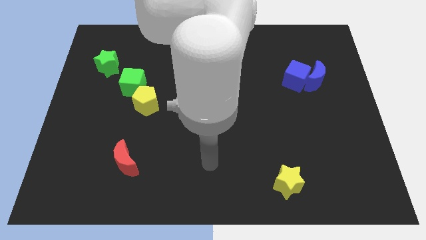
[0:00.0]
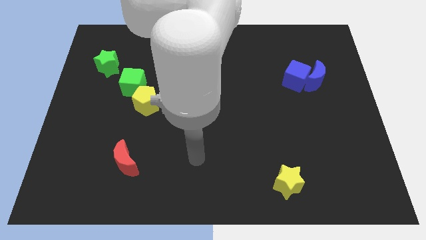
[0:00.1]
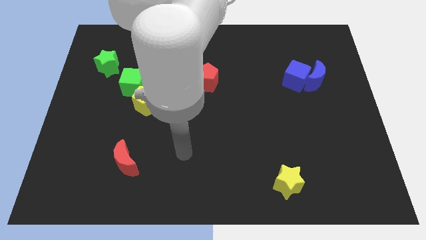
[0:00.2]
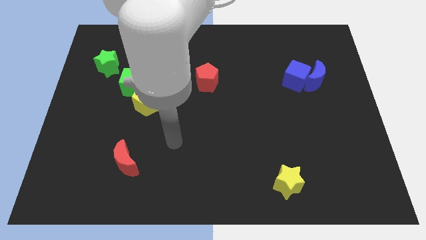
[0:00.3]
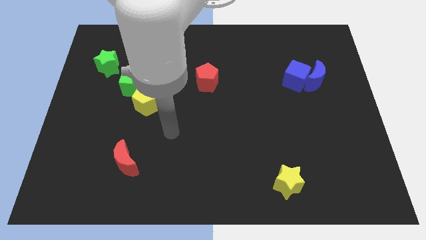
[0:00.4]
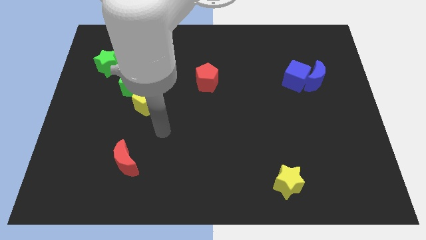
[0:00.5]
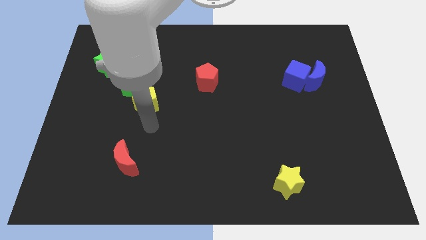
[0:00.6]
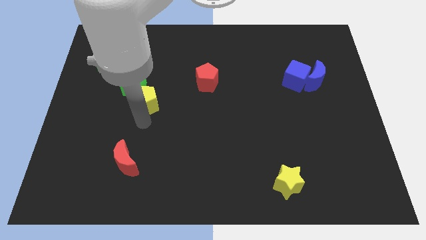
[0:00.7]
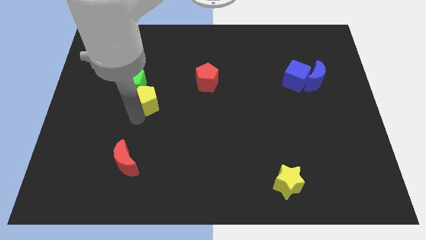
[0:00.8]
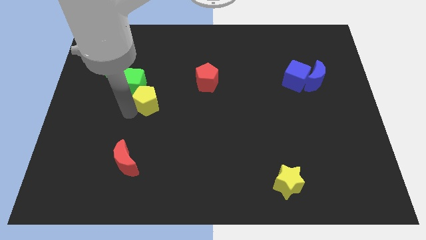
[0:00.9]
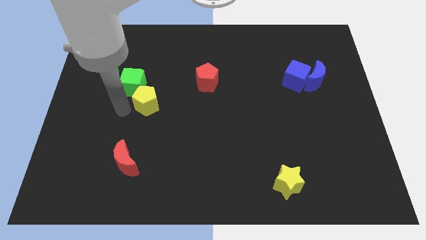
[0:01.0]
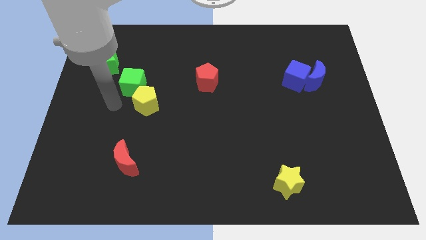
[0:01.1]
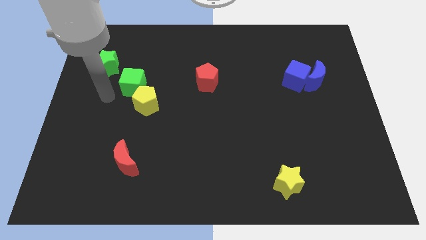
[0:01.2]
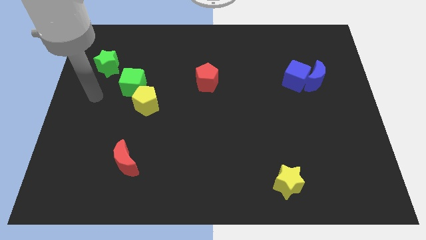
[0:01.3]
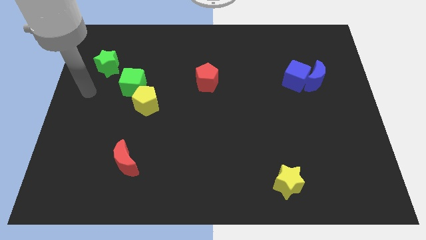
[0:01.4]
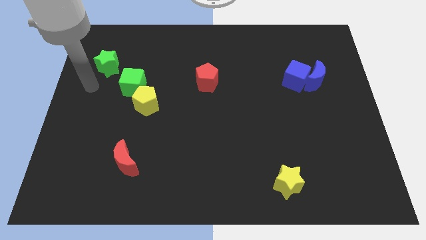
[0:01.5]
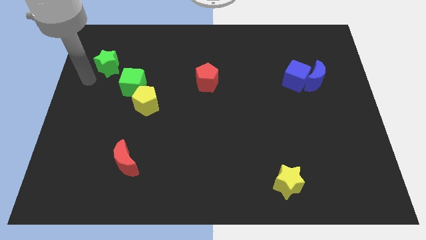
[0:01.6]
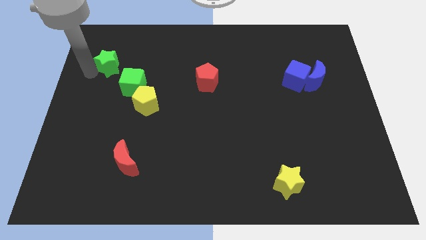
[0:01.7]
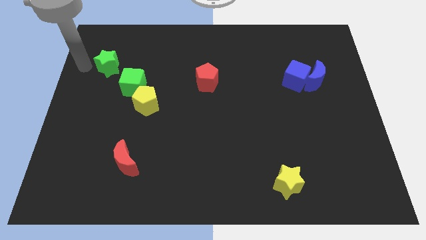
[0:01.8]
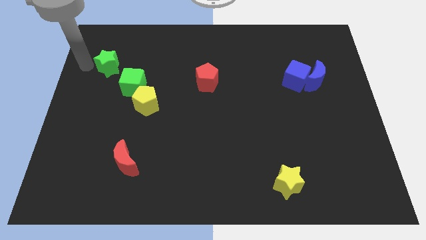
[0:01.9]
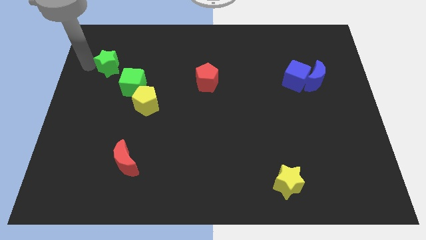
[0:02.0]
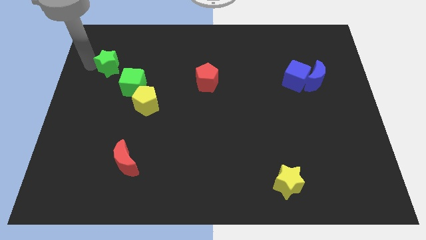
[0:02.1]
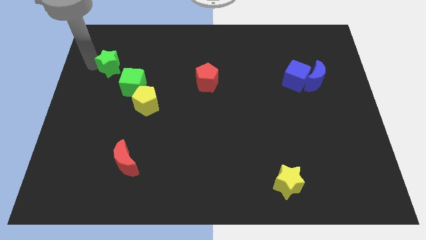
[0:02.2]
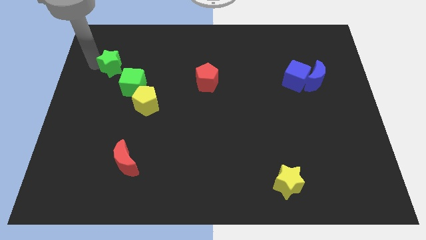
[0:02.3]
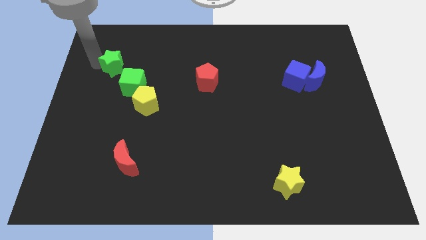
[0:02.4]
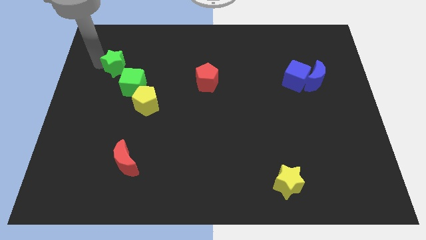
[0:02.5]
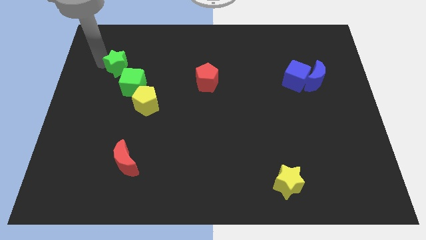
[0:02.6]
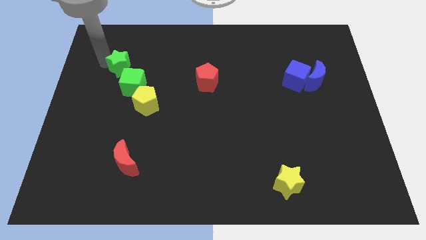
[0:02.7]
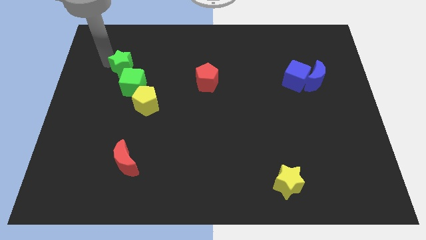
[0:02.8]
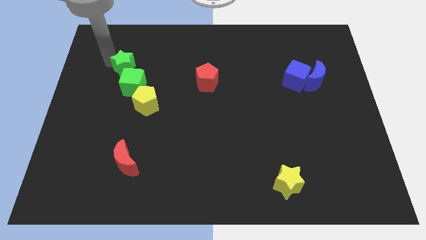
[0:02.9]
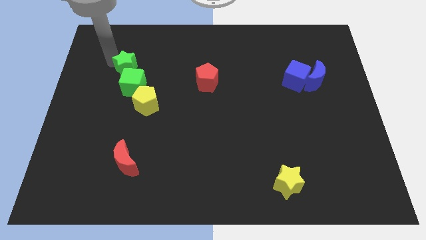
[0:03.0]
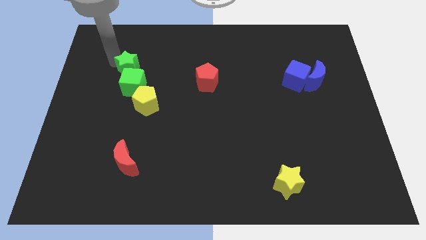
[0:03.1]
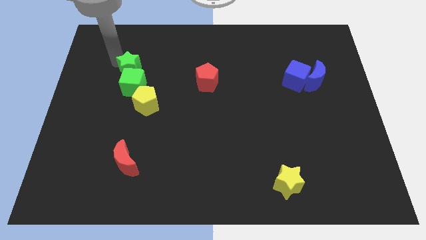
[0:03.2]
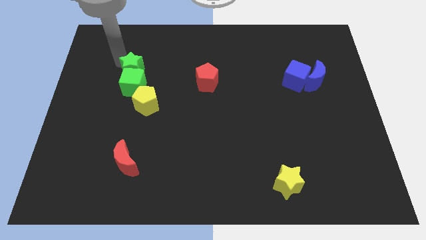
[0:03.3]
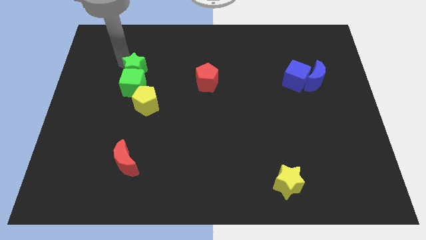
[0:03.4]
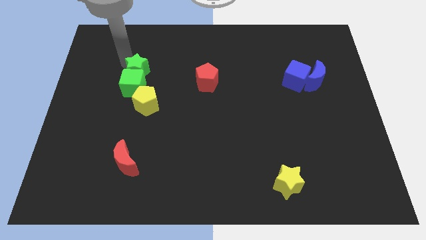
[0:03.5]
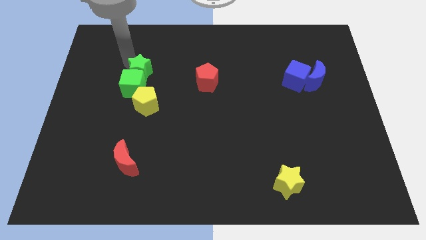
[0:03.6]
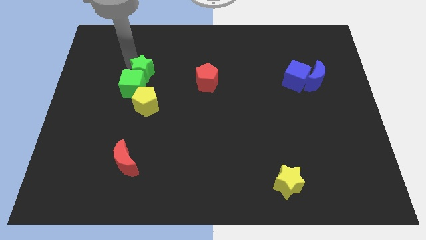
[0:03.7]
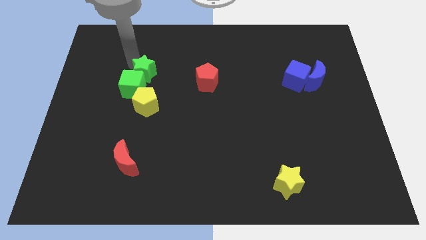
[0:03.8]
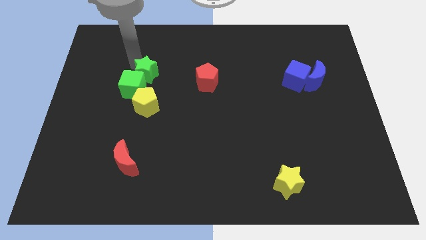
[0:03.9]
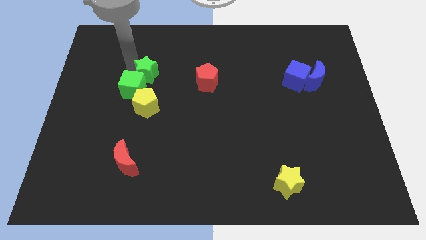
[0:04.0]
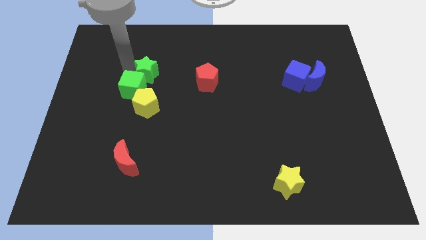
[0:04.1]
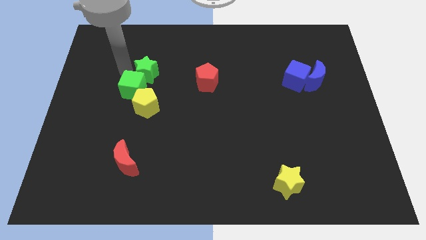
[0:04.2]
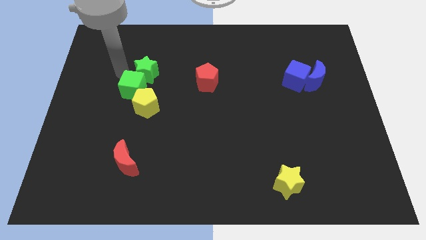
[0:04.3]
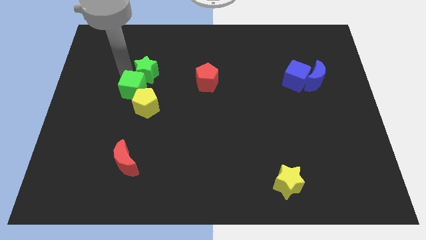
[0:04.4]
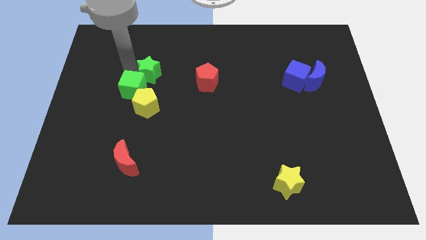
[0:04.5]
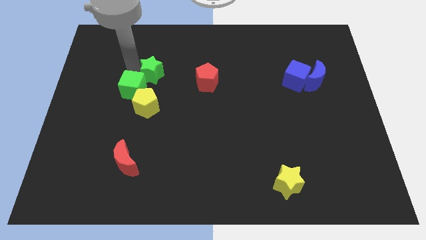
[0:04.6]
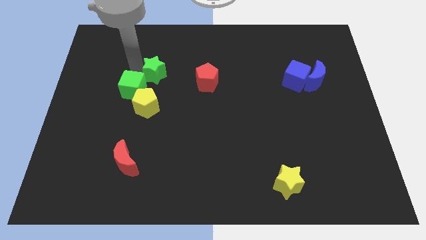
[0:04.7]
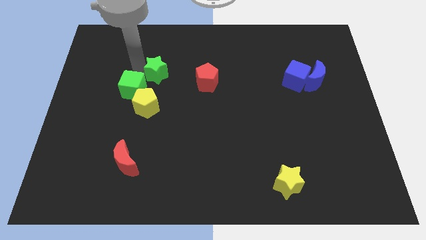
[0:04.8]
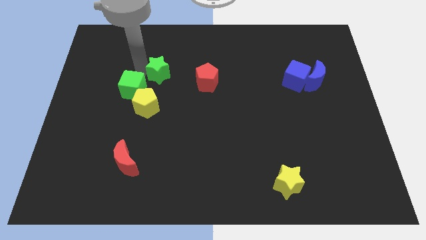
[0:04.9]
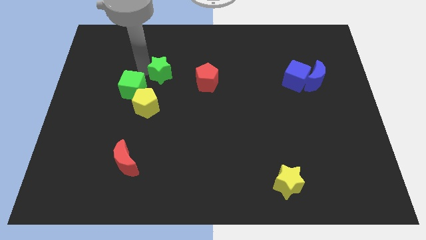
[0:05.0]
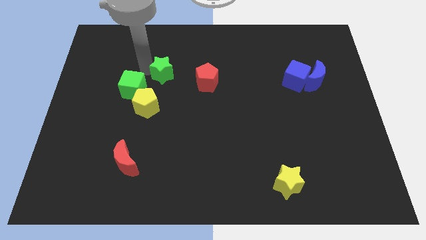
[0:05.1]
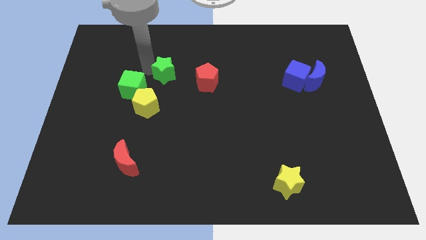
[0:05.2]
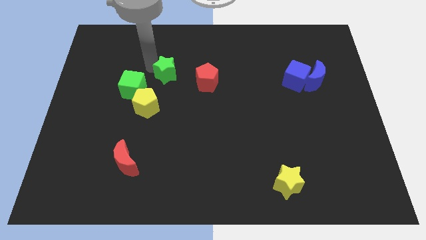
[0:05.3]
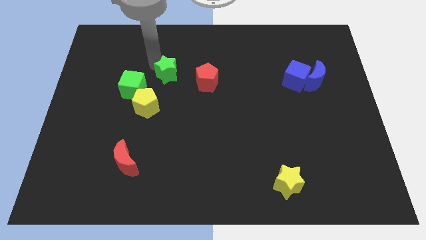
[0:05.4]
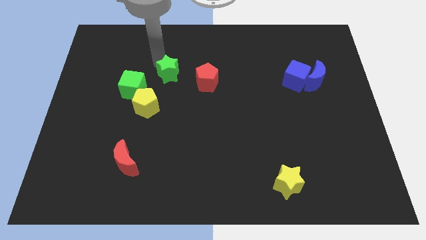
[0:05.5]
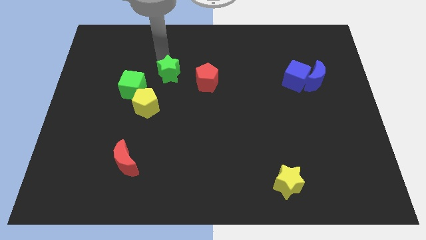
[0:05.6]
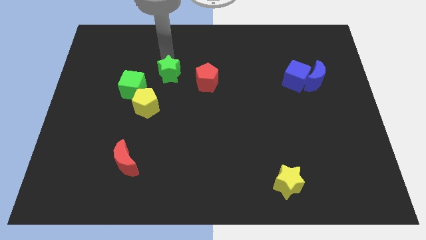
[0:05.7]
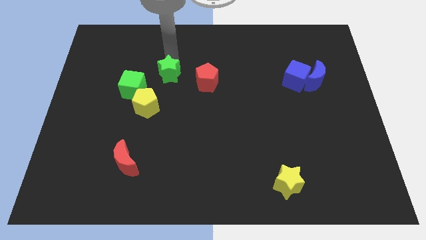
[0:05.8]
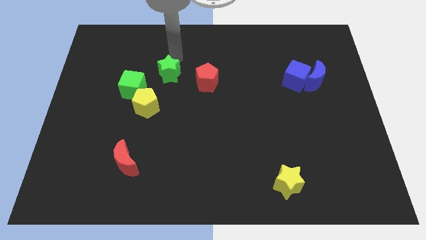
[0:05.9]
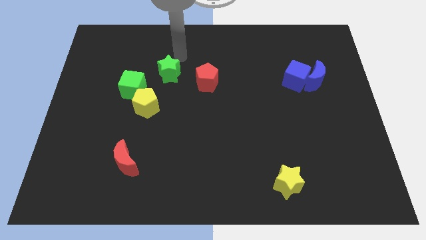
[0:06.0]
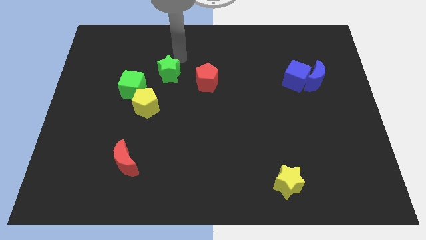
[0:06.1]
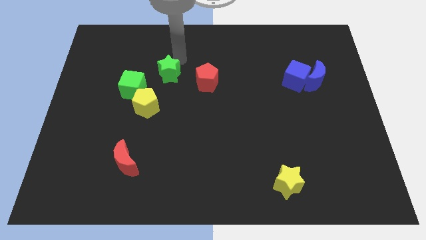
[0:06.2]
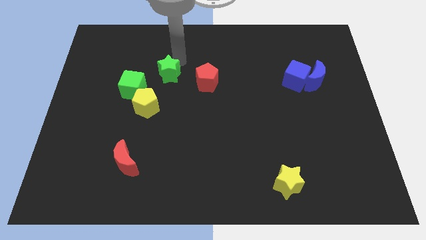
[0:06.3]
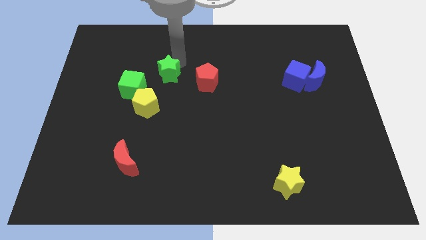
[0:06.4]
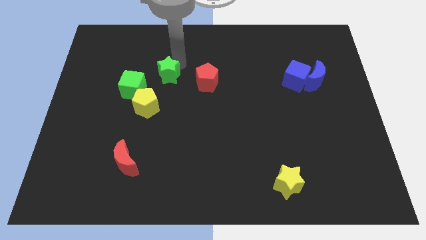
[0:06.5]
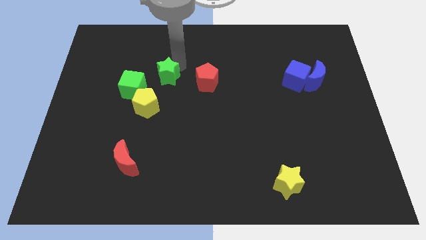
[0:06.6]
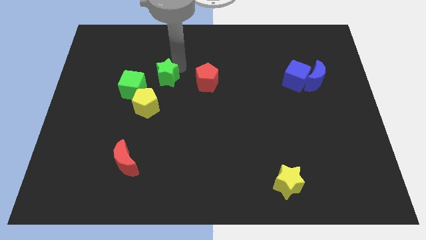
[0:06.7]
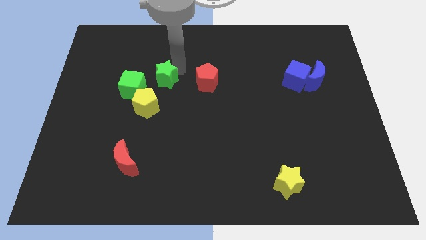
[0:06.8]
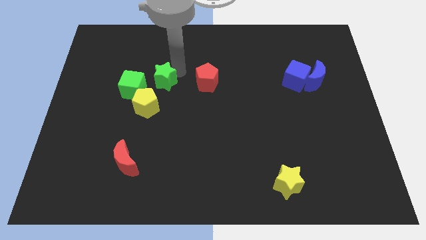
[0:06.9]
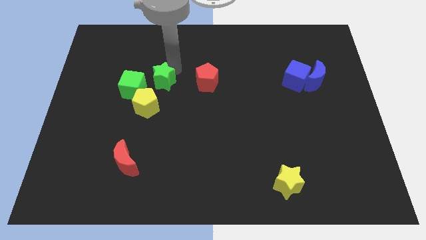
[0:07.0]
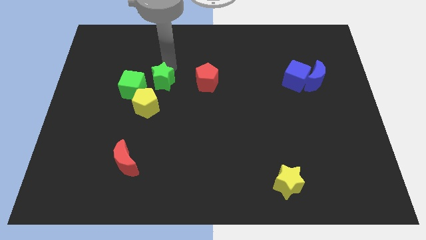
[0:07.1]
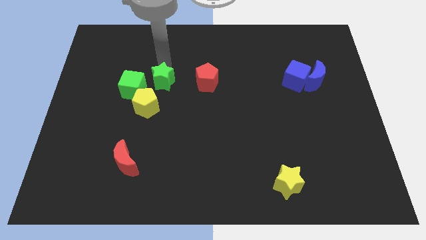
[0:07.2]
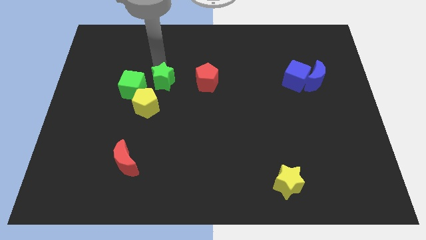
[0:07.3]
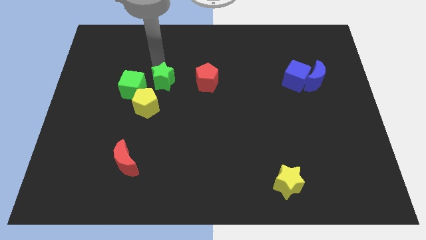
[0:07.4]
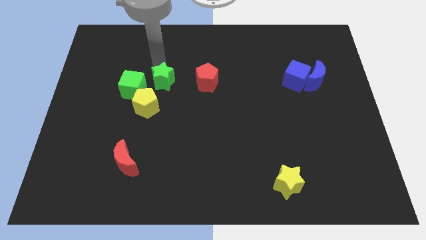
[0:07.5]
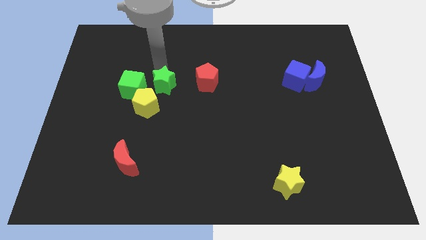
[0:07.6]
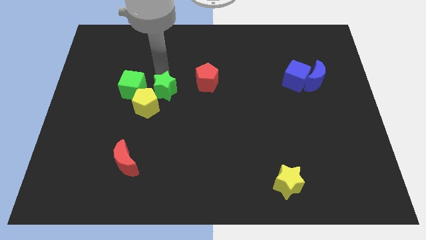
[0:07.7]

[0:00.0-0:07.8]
move the green star to the center of the board
